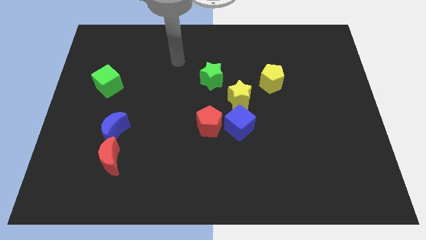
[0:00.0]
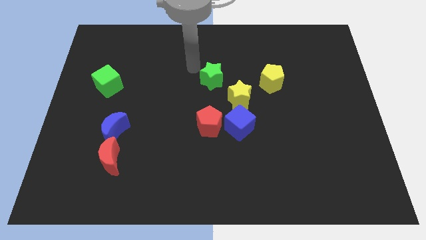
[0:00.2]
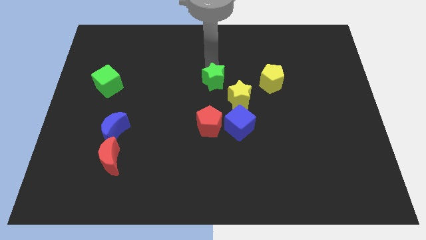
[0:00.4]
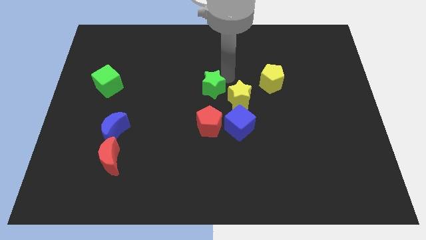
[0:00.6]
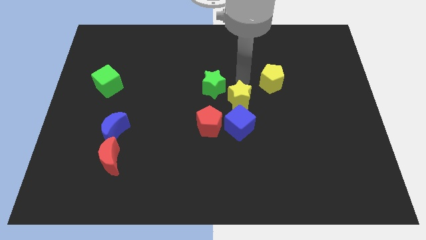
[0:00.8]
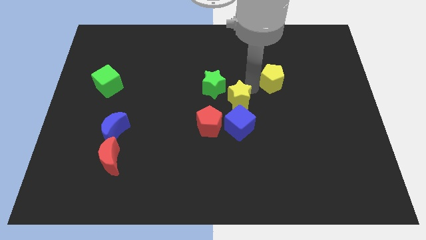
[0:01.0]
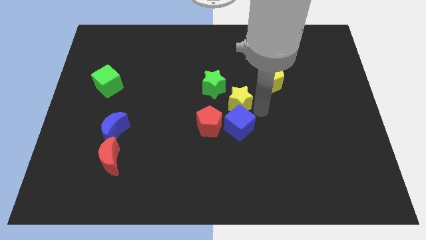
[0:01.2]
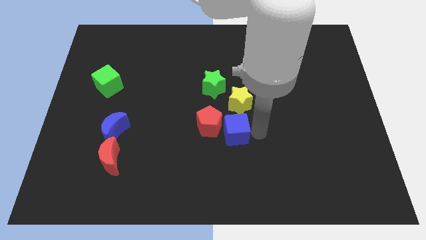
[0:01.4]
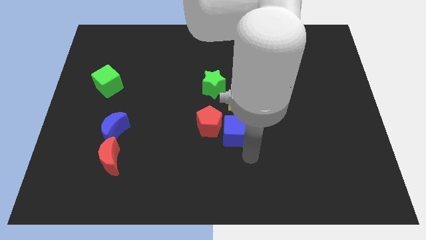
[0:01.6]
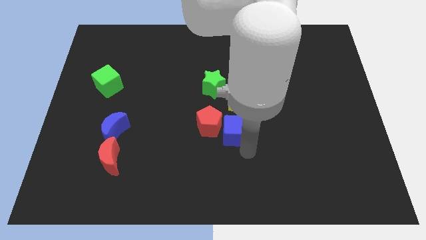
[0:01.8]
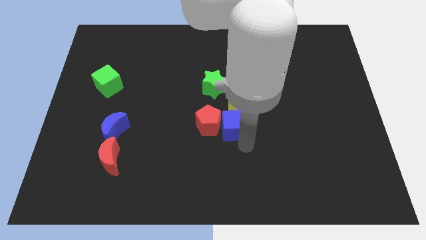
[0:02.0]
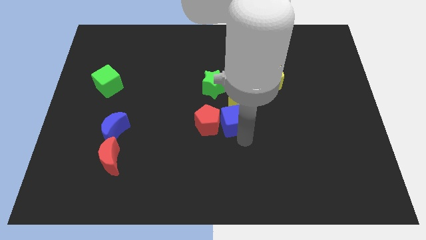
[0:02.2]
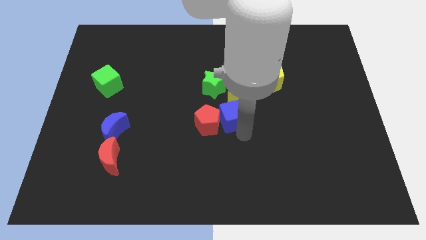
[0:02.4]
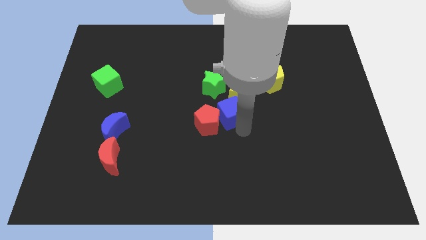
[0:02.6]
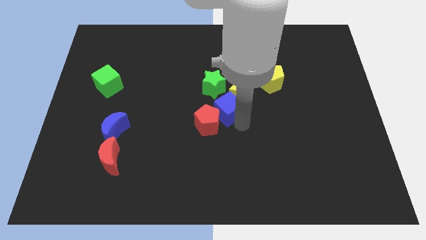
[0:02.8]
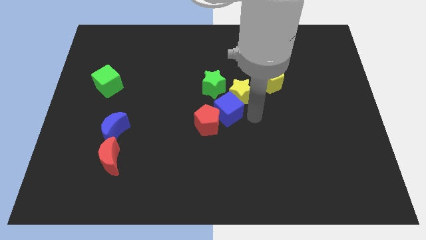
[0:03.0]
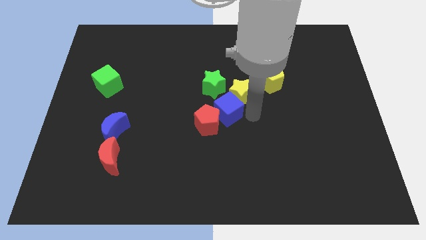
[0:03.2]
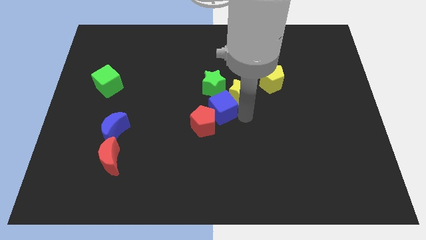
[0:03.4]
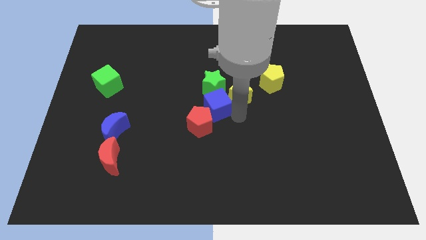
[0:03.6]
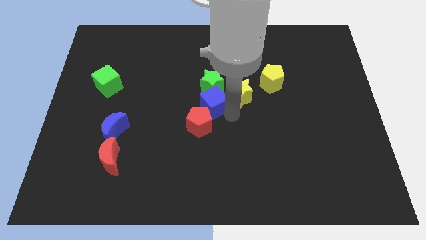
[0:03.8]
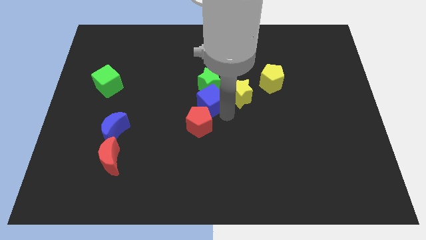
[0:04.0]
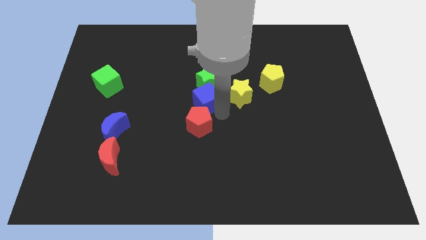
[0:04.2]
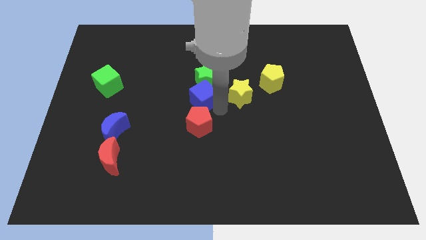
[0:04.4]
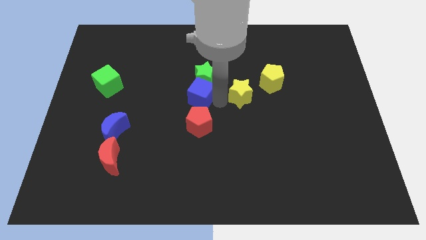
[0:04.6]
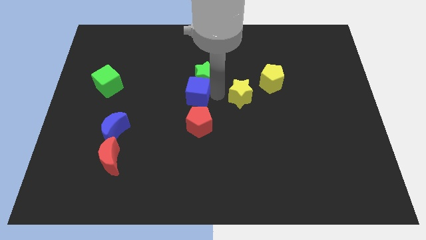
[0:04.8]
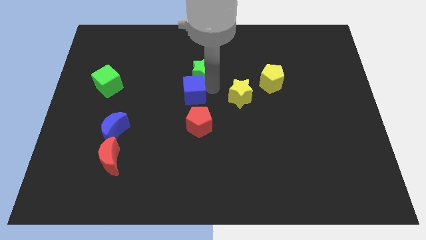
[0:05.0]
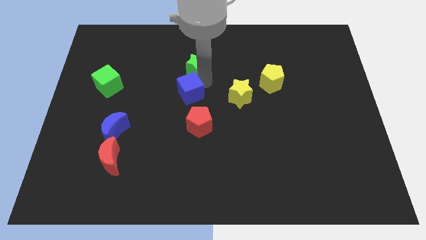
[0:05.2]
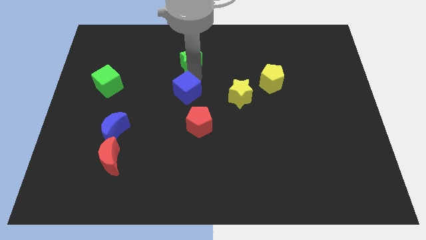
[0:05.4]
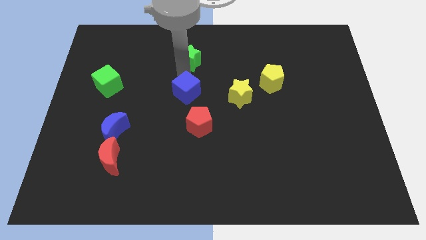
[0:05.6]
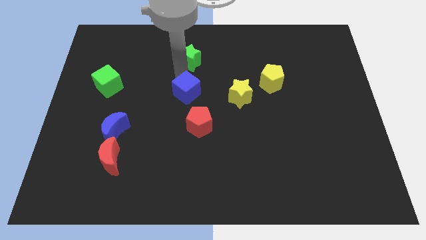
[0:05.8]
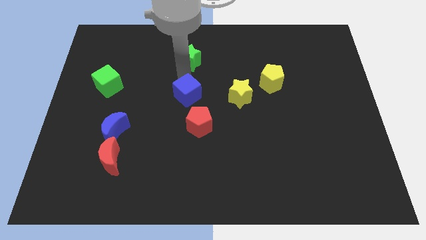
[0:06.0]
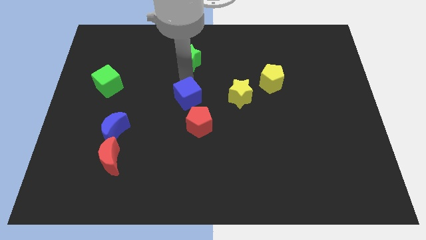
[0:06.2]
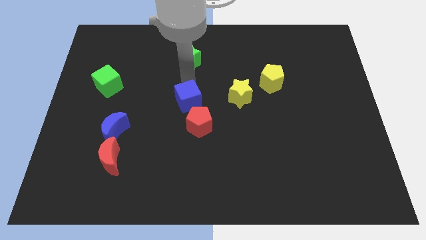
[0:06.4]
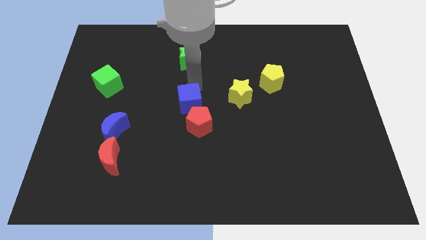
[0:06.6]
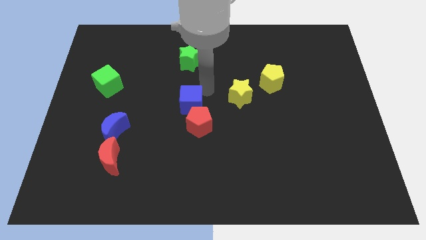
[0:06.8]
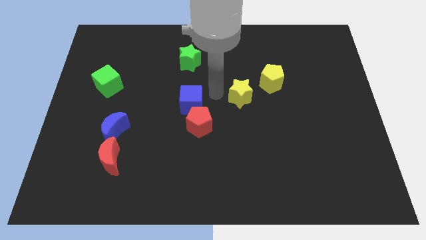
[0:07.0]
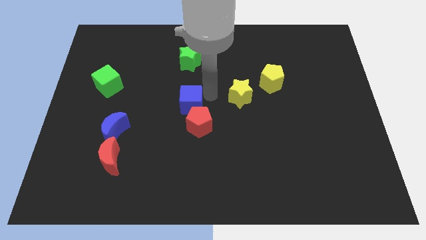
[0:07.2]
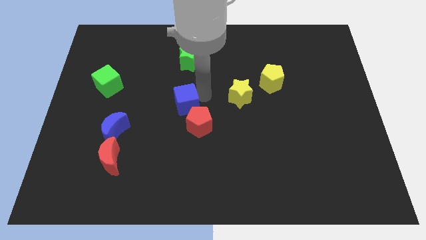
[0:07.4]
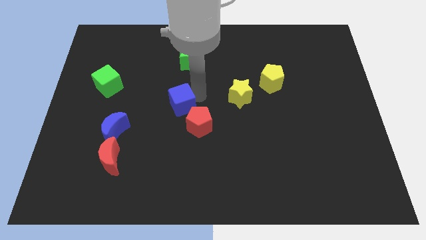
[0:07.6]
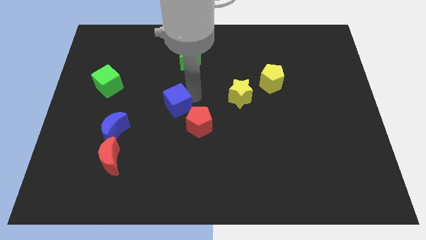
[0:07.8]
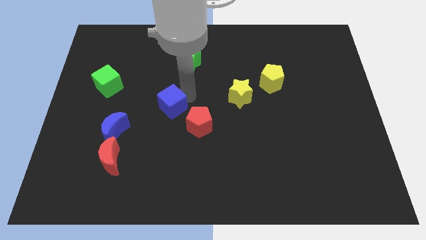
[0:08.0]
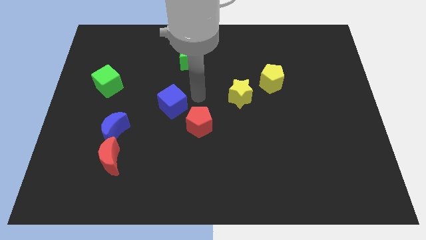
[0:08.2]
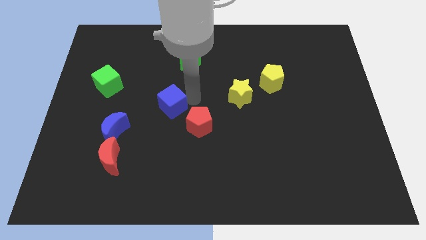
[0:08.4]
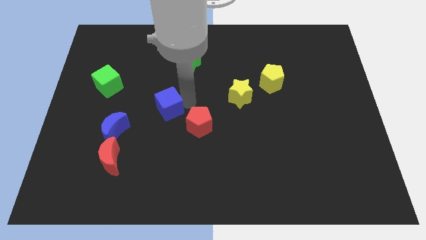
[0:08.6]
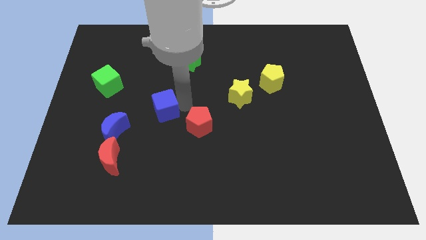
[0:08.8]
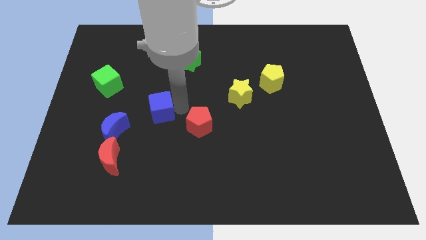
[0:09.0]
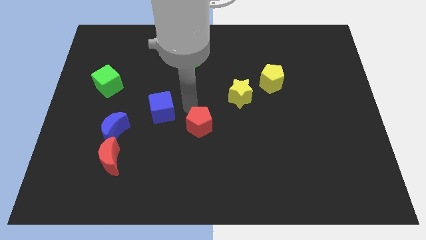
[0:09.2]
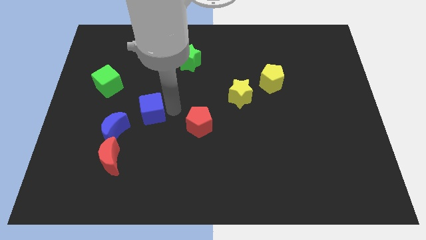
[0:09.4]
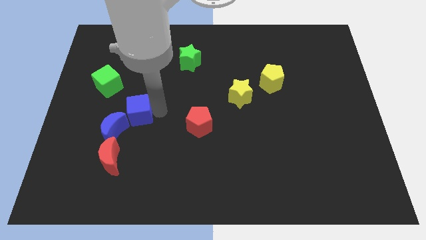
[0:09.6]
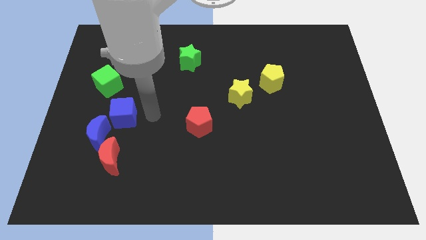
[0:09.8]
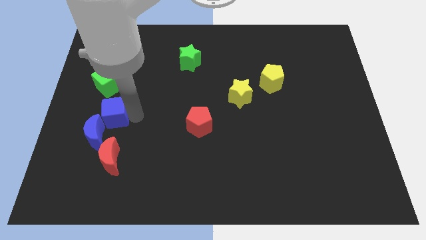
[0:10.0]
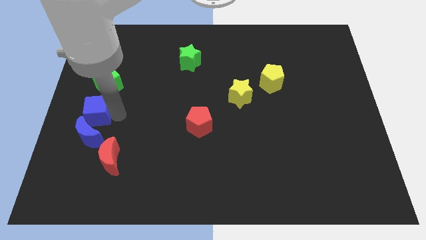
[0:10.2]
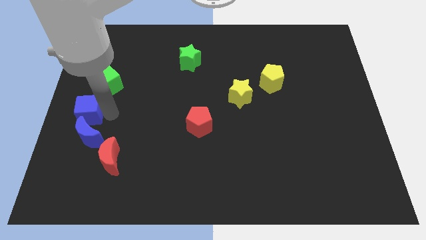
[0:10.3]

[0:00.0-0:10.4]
move the blue cube to the top left of the blue moon

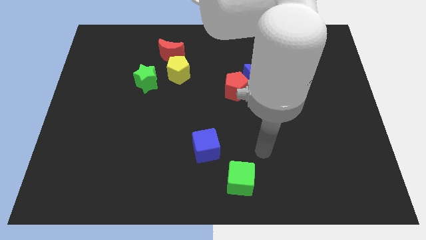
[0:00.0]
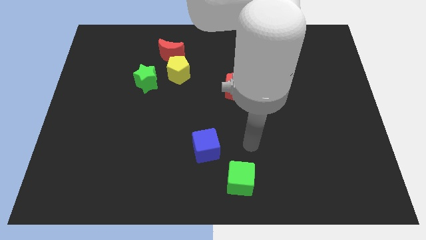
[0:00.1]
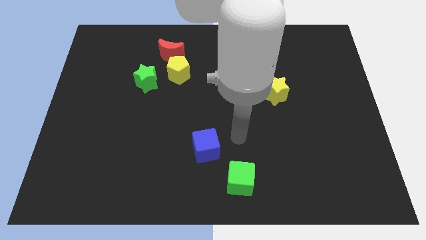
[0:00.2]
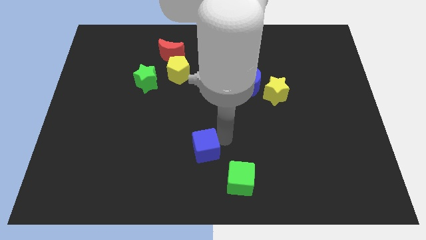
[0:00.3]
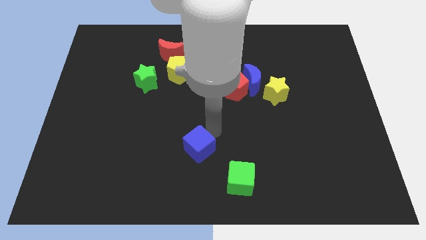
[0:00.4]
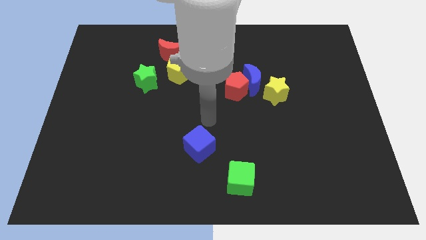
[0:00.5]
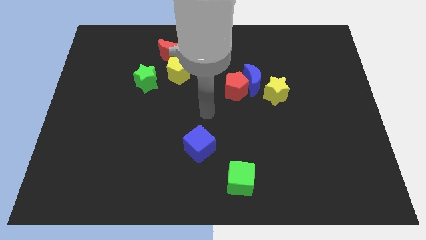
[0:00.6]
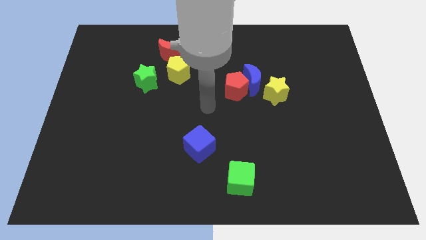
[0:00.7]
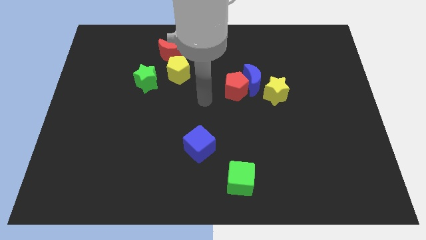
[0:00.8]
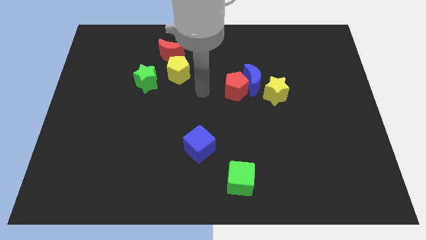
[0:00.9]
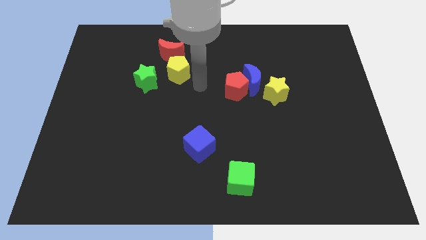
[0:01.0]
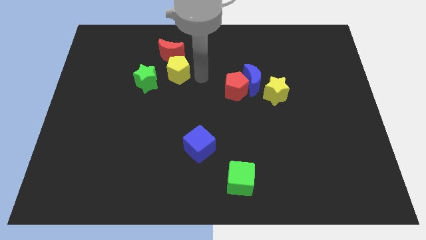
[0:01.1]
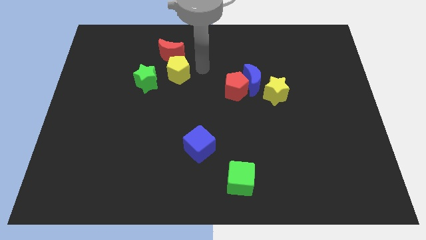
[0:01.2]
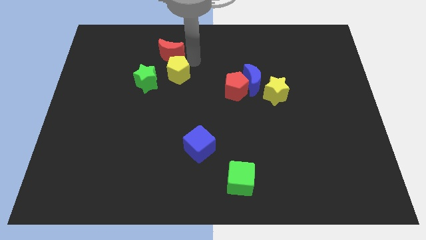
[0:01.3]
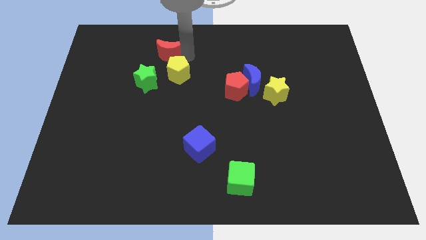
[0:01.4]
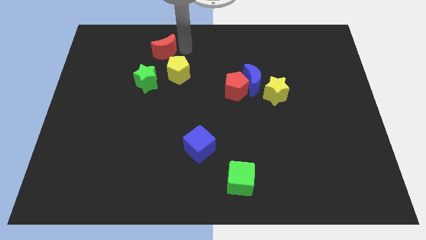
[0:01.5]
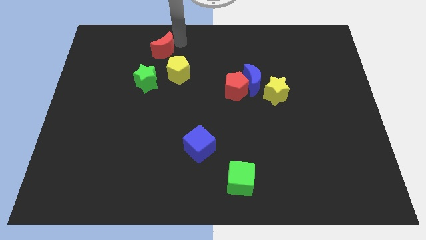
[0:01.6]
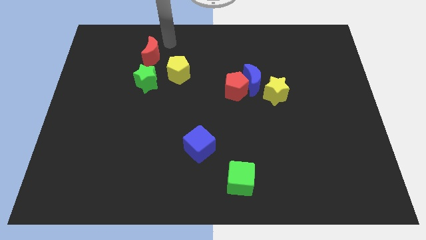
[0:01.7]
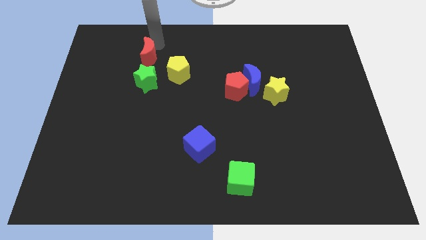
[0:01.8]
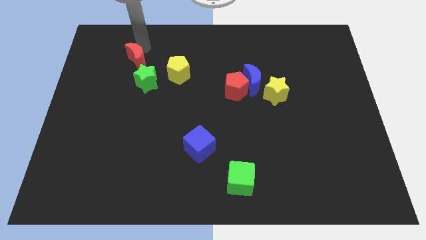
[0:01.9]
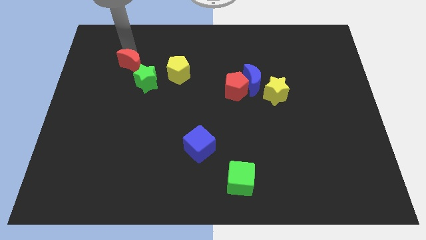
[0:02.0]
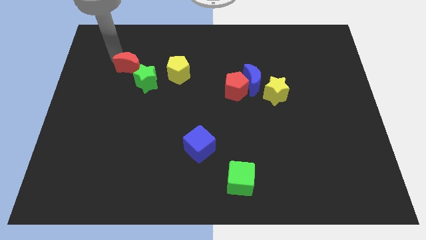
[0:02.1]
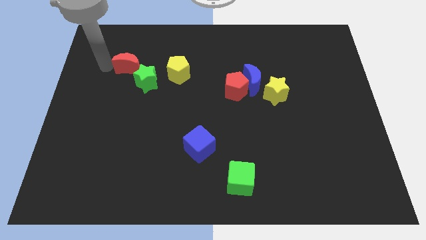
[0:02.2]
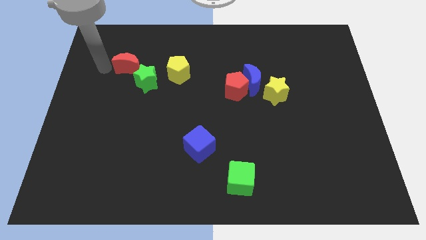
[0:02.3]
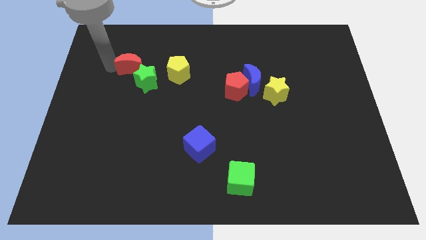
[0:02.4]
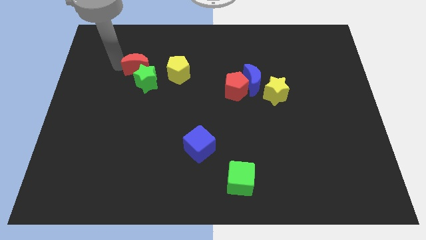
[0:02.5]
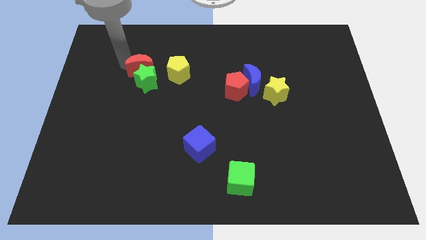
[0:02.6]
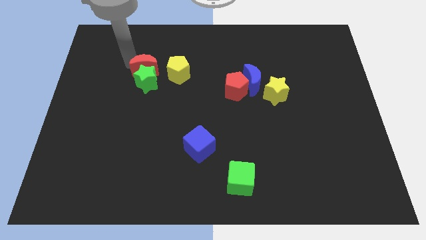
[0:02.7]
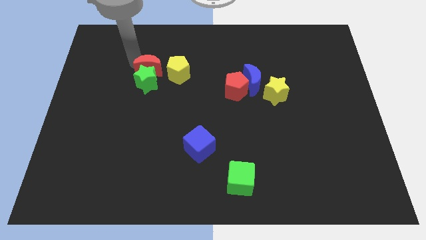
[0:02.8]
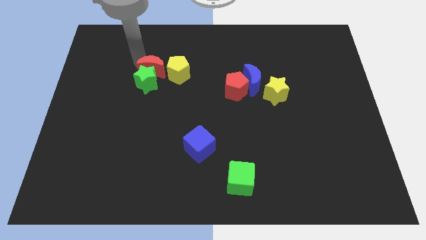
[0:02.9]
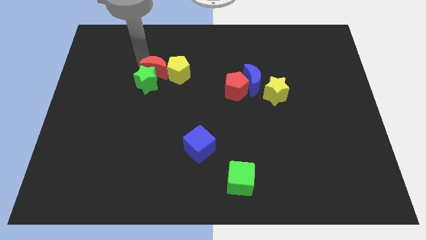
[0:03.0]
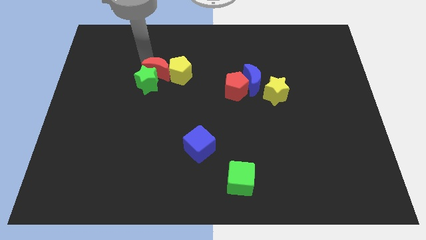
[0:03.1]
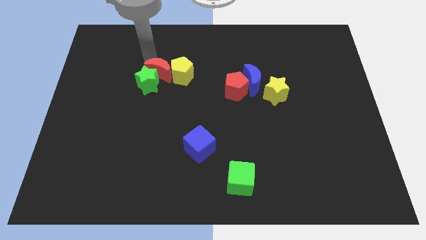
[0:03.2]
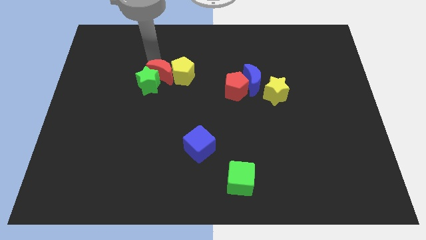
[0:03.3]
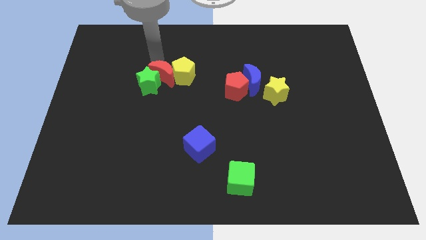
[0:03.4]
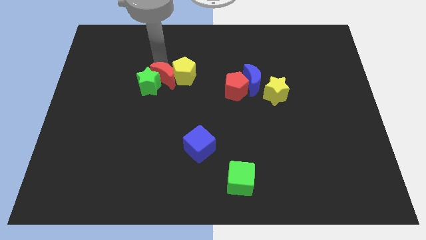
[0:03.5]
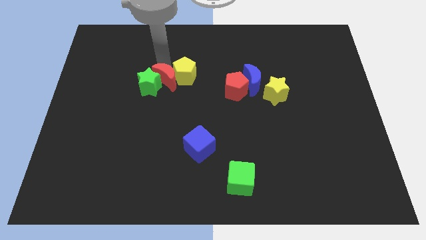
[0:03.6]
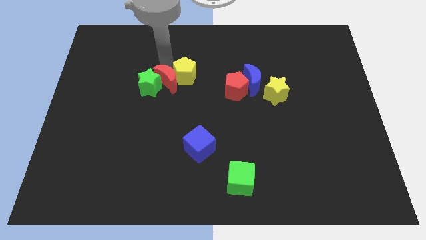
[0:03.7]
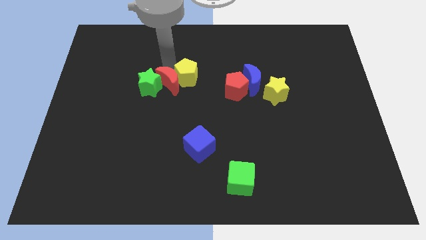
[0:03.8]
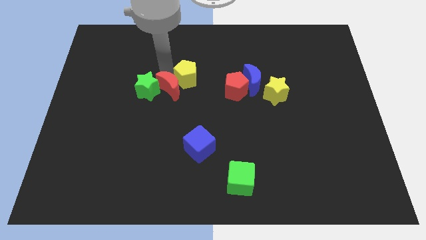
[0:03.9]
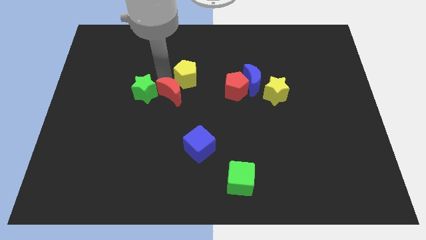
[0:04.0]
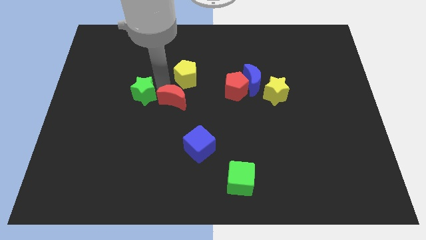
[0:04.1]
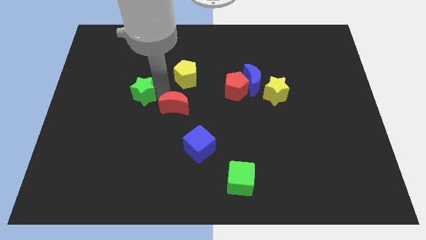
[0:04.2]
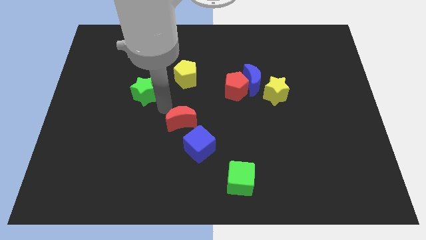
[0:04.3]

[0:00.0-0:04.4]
move the red moon to the top of the blue cube
